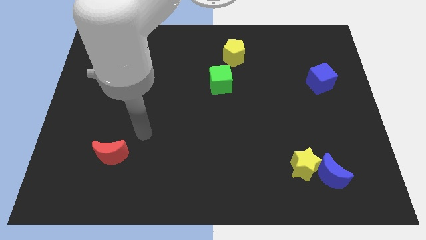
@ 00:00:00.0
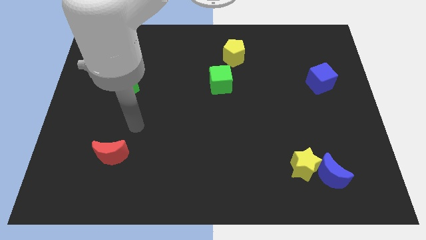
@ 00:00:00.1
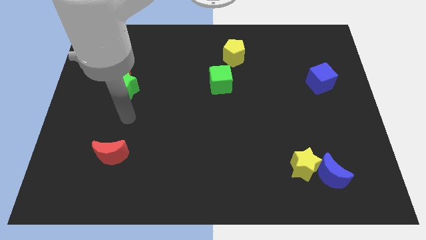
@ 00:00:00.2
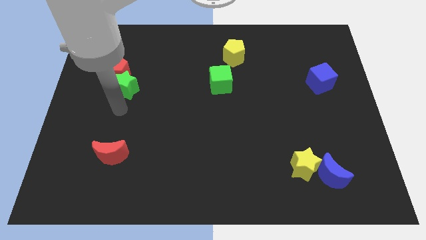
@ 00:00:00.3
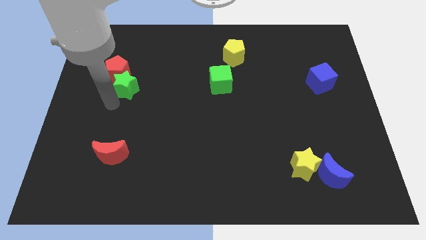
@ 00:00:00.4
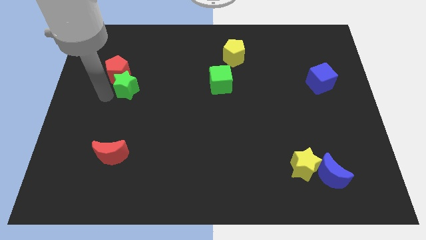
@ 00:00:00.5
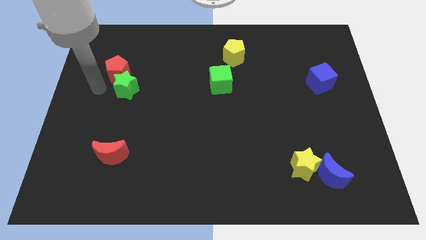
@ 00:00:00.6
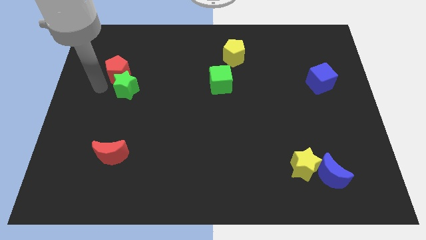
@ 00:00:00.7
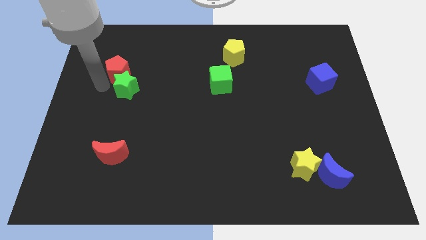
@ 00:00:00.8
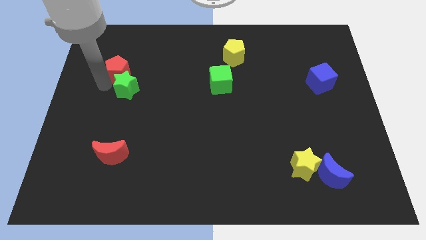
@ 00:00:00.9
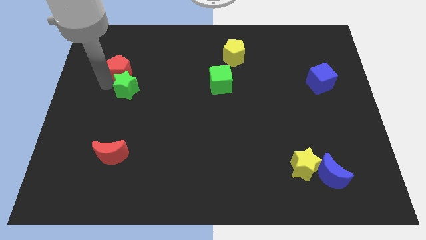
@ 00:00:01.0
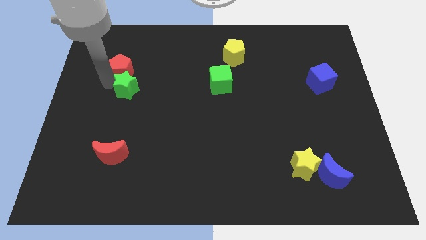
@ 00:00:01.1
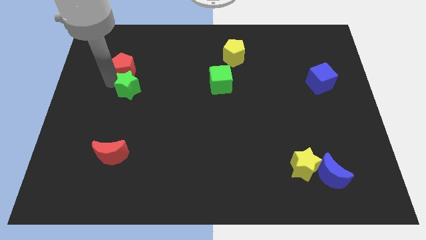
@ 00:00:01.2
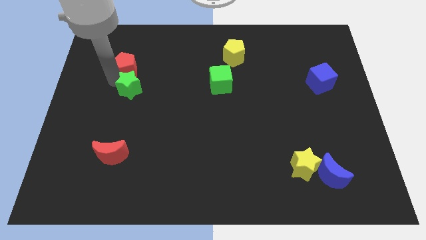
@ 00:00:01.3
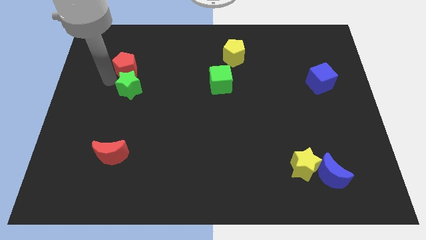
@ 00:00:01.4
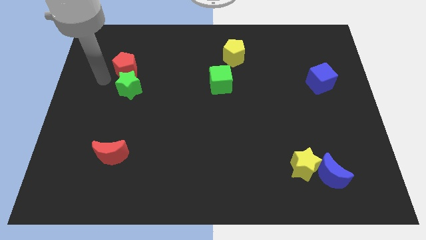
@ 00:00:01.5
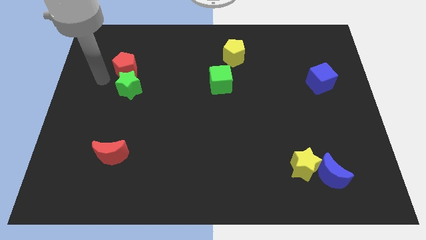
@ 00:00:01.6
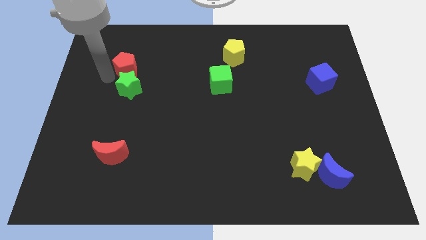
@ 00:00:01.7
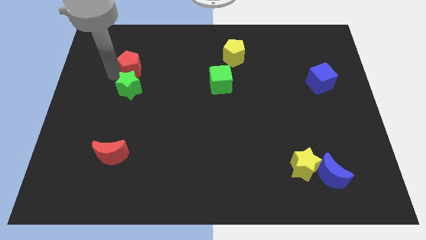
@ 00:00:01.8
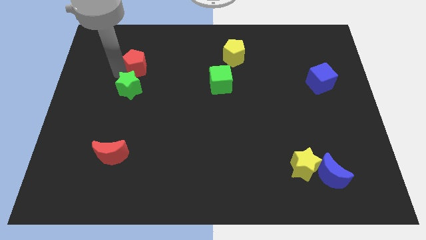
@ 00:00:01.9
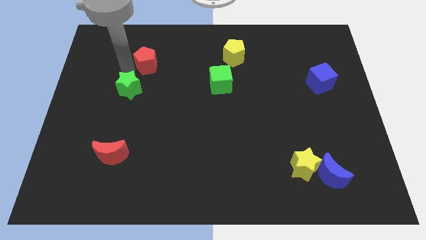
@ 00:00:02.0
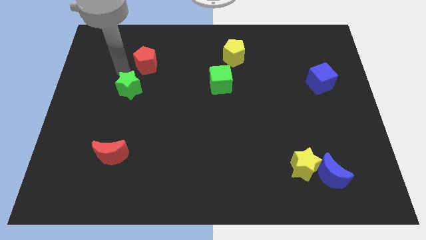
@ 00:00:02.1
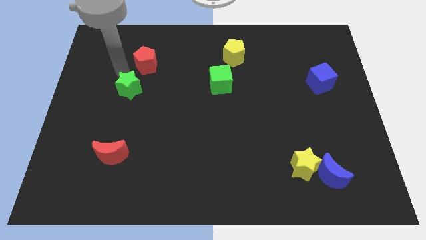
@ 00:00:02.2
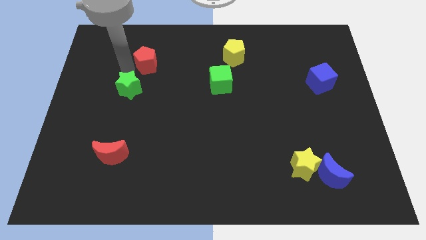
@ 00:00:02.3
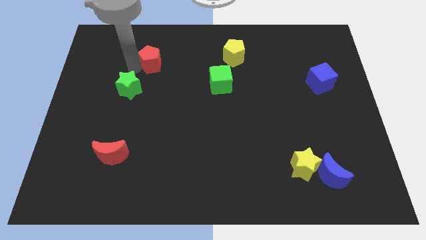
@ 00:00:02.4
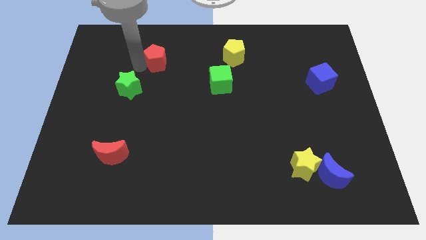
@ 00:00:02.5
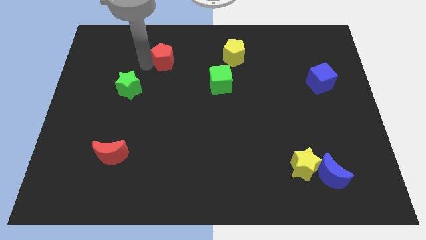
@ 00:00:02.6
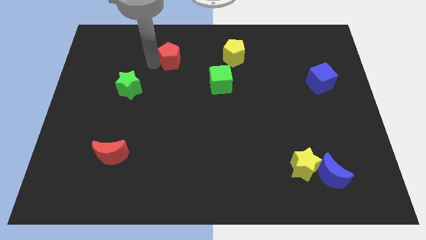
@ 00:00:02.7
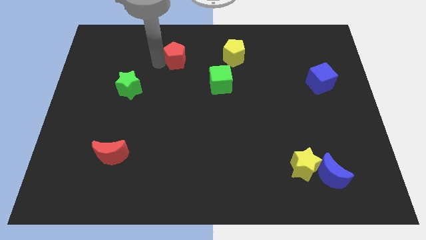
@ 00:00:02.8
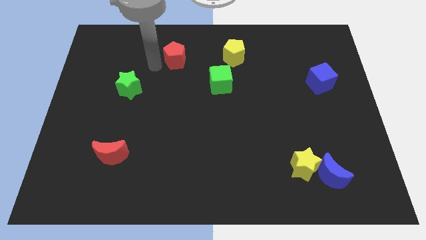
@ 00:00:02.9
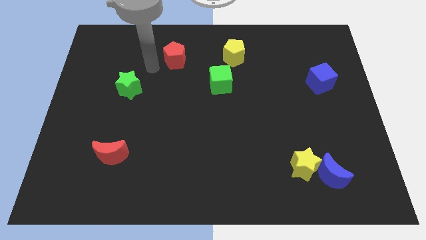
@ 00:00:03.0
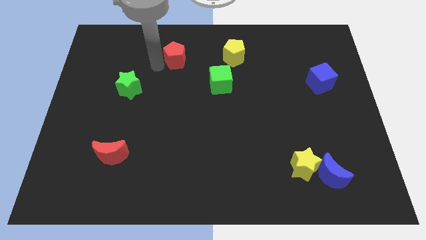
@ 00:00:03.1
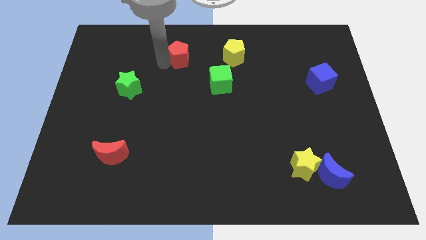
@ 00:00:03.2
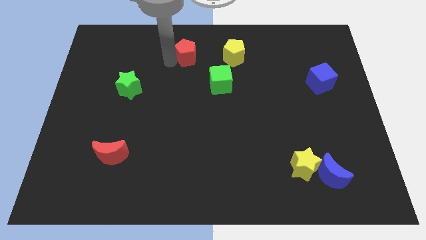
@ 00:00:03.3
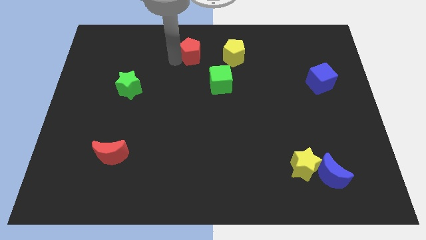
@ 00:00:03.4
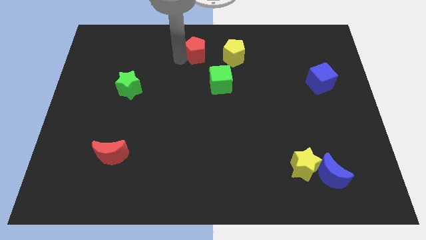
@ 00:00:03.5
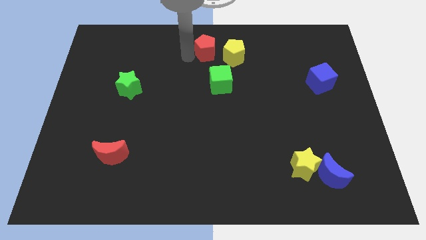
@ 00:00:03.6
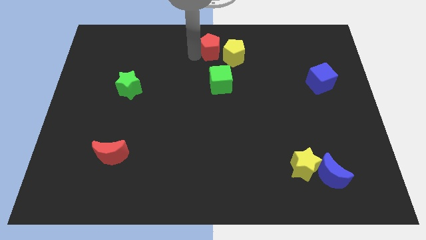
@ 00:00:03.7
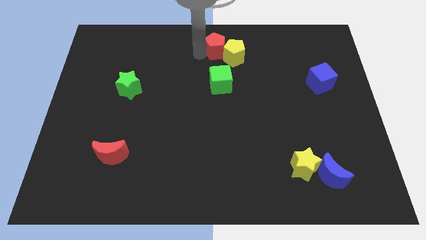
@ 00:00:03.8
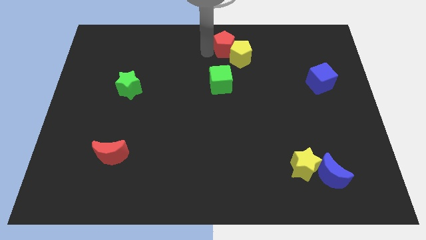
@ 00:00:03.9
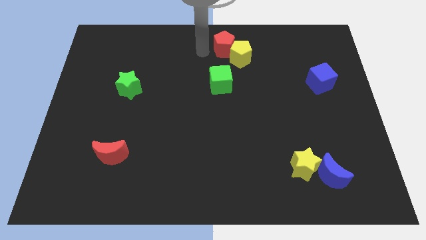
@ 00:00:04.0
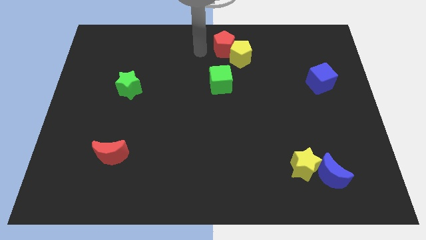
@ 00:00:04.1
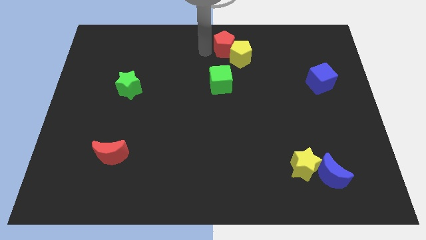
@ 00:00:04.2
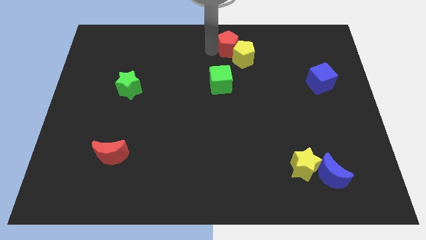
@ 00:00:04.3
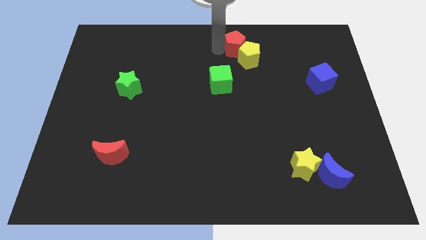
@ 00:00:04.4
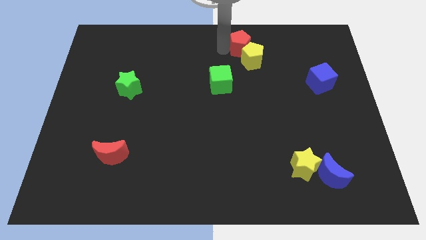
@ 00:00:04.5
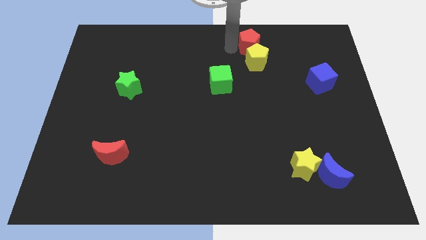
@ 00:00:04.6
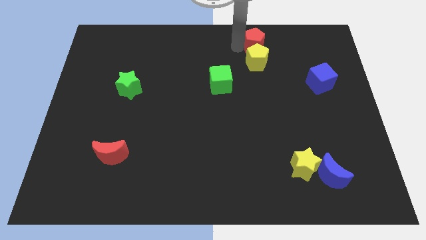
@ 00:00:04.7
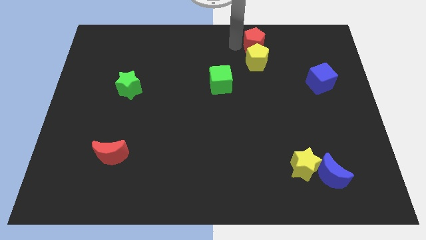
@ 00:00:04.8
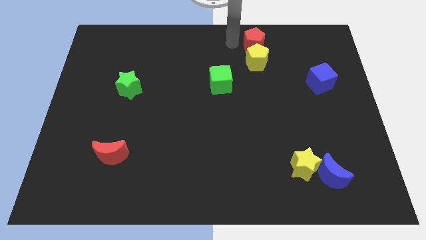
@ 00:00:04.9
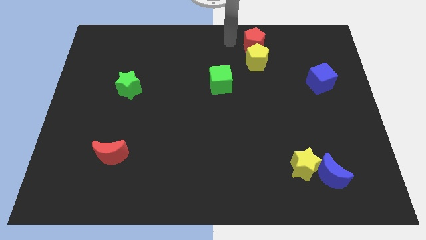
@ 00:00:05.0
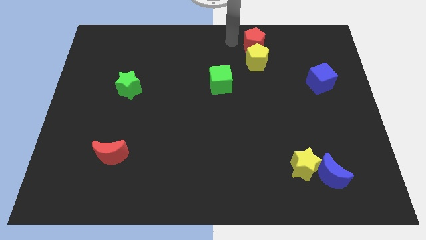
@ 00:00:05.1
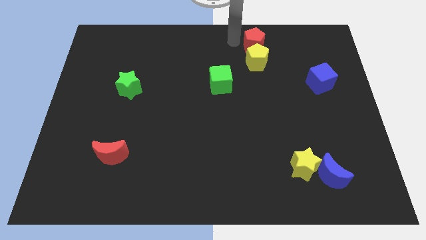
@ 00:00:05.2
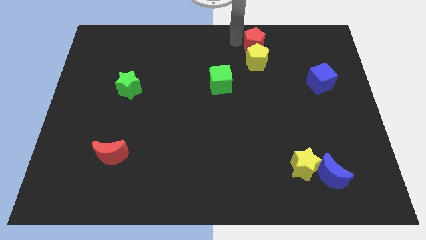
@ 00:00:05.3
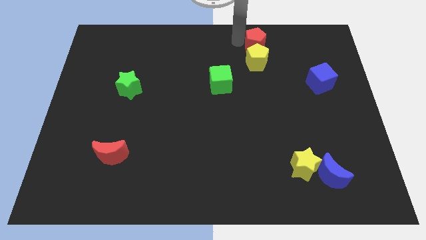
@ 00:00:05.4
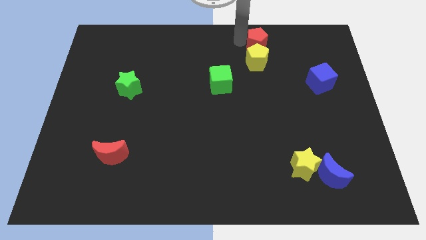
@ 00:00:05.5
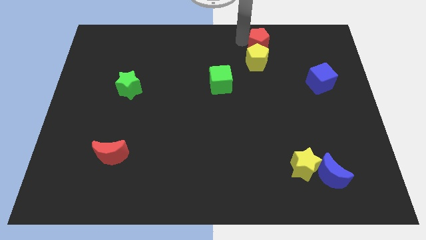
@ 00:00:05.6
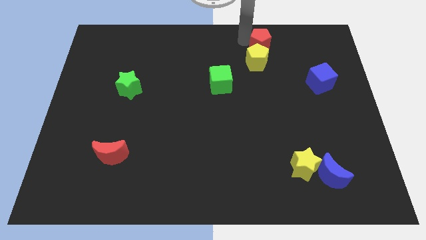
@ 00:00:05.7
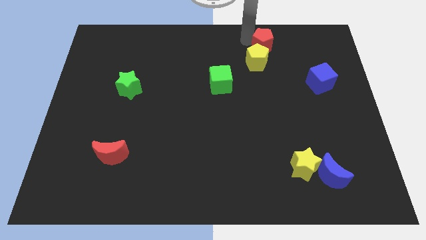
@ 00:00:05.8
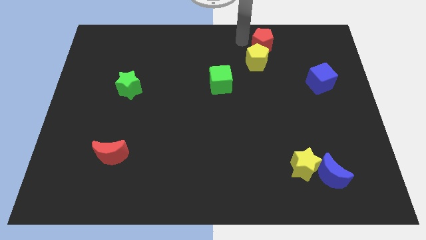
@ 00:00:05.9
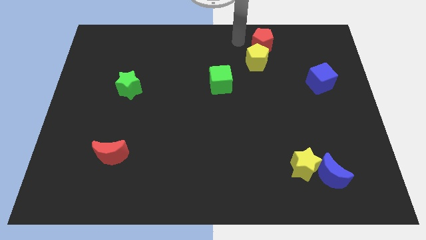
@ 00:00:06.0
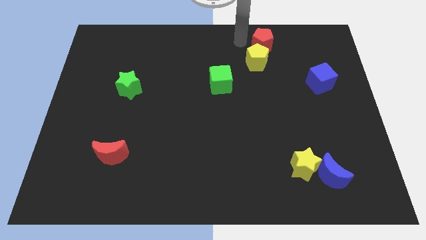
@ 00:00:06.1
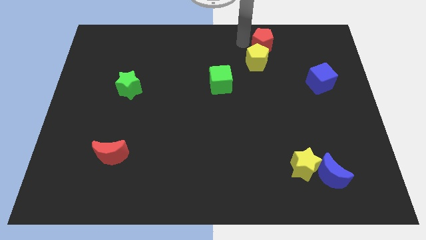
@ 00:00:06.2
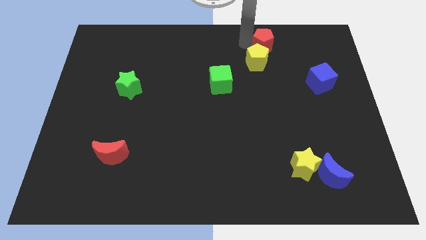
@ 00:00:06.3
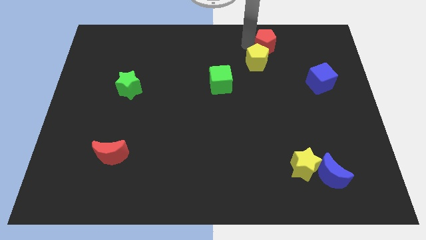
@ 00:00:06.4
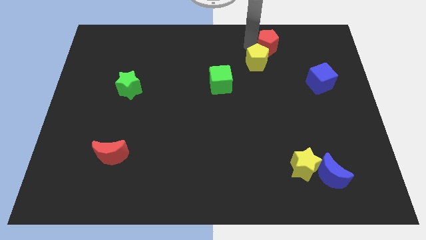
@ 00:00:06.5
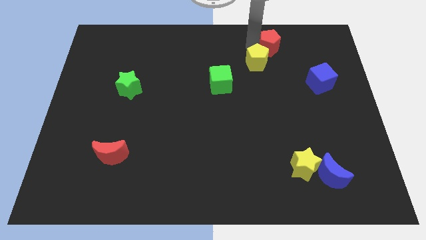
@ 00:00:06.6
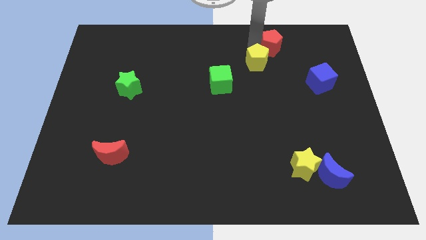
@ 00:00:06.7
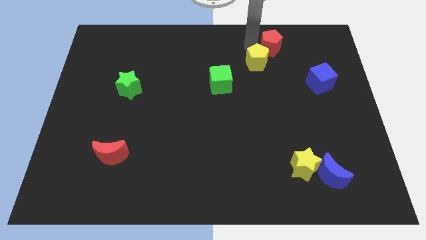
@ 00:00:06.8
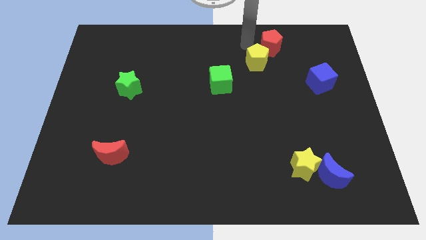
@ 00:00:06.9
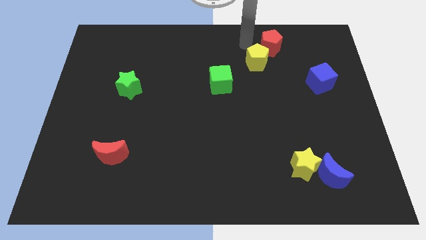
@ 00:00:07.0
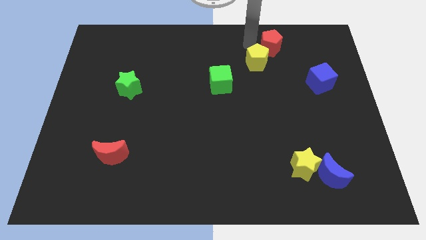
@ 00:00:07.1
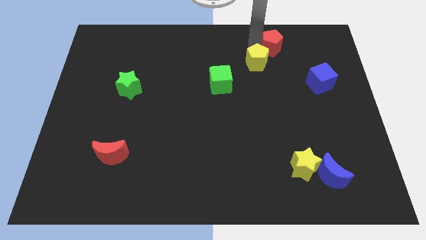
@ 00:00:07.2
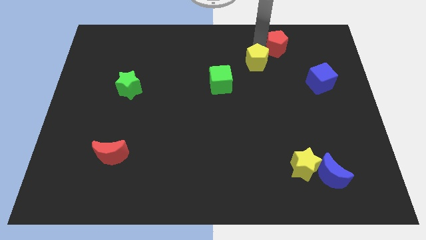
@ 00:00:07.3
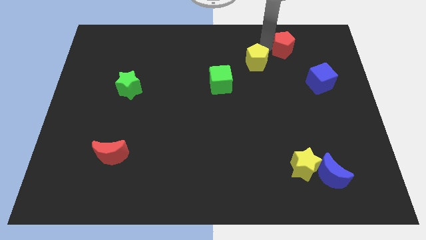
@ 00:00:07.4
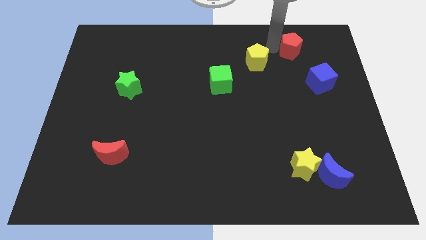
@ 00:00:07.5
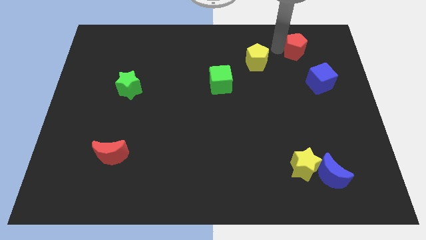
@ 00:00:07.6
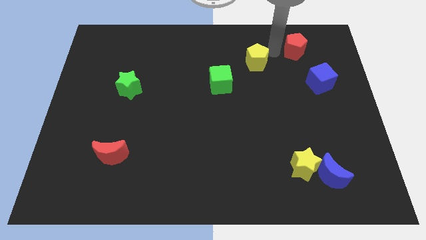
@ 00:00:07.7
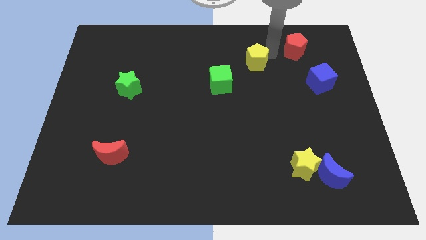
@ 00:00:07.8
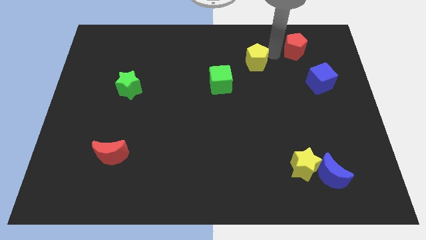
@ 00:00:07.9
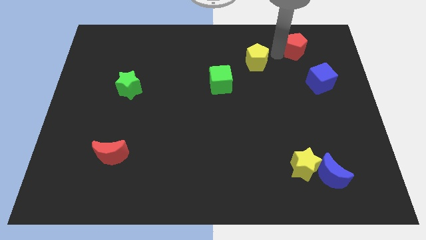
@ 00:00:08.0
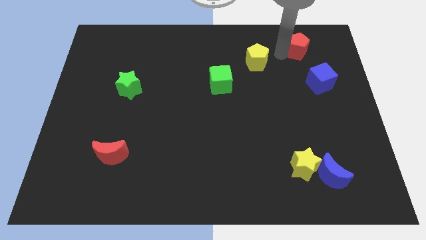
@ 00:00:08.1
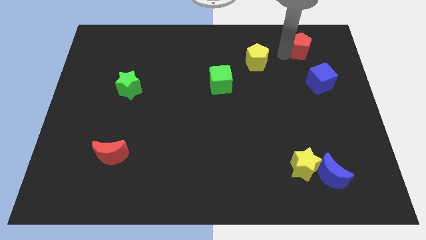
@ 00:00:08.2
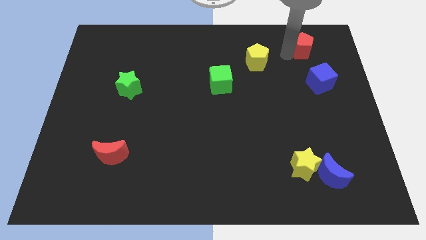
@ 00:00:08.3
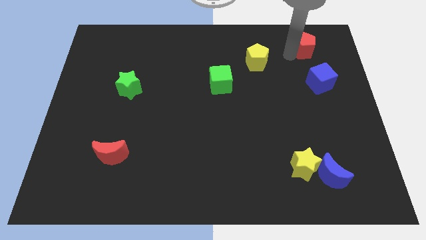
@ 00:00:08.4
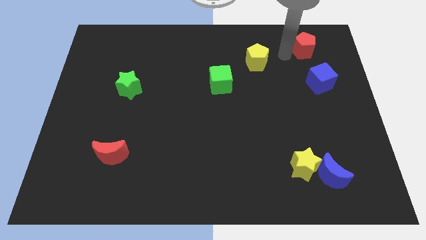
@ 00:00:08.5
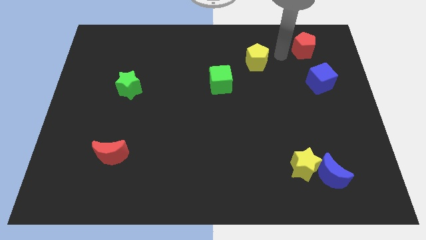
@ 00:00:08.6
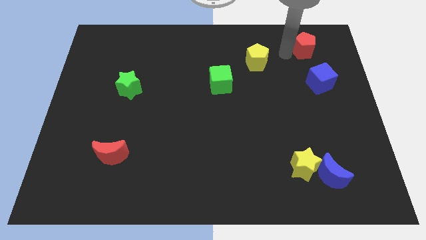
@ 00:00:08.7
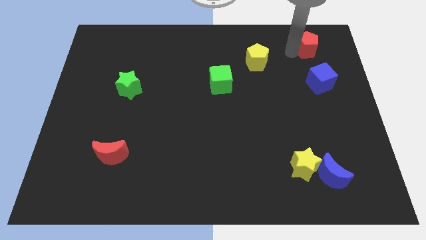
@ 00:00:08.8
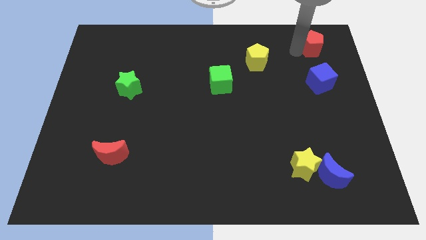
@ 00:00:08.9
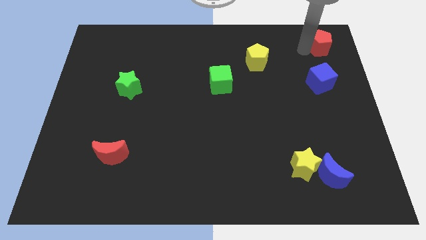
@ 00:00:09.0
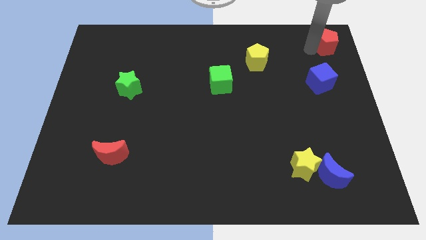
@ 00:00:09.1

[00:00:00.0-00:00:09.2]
slide the red pentagon to the top right
